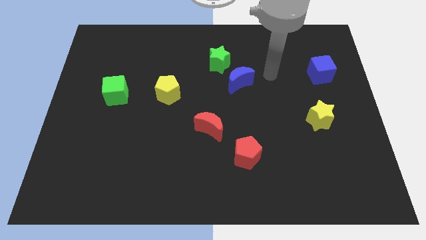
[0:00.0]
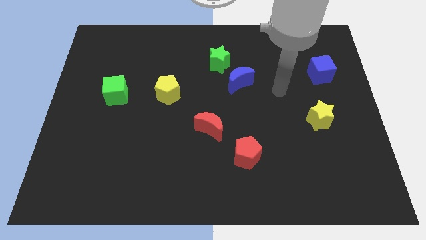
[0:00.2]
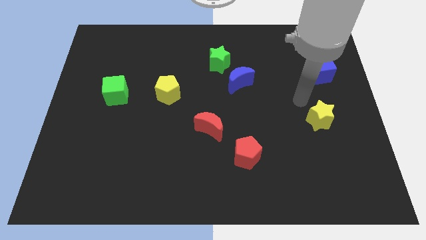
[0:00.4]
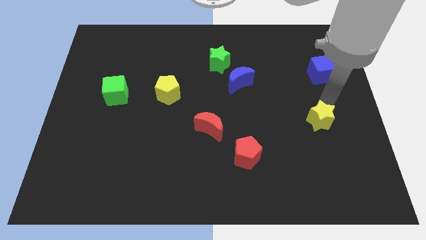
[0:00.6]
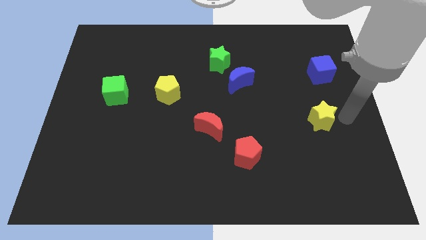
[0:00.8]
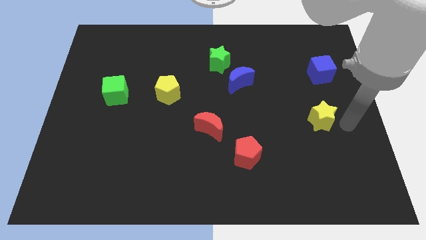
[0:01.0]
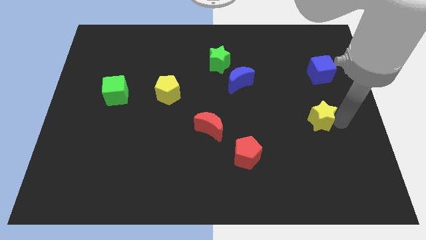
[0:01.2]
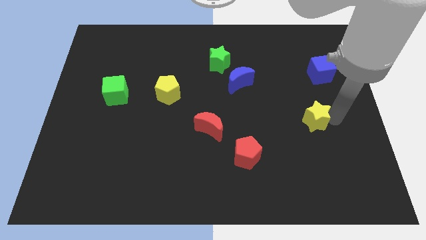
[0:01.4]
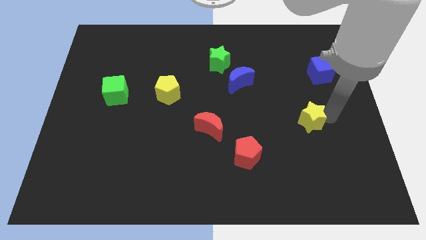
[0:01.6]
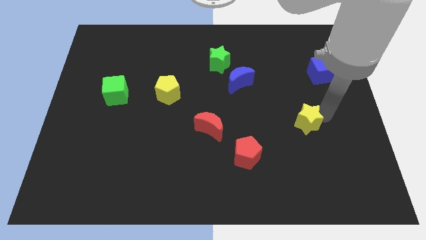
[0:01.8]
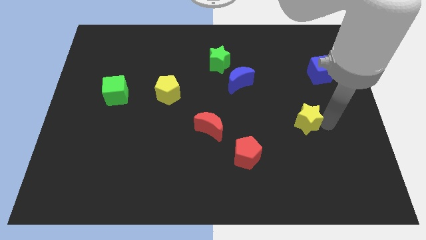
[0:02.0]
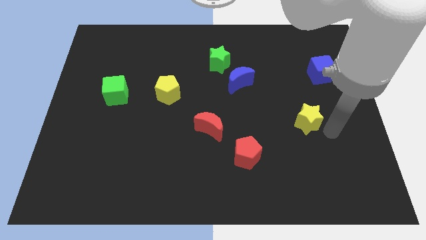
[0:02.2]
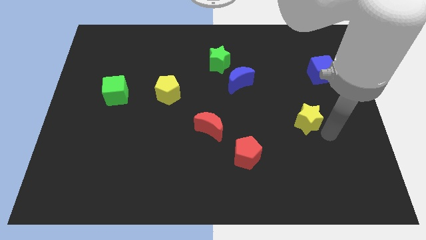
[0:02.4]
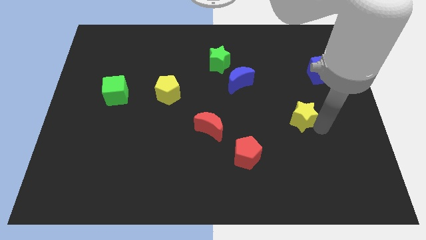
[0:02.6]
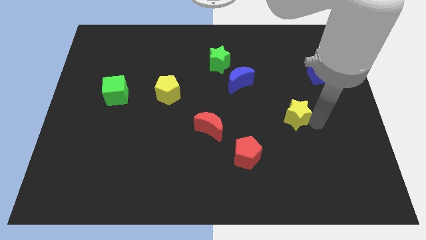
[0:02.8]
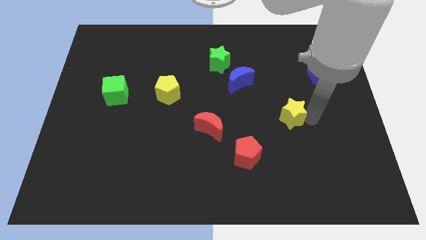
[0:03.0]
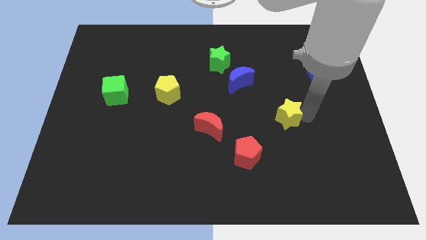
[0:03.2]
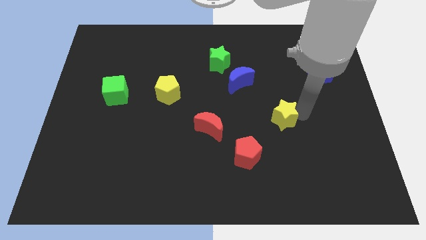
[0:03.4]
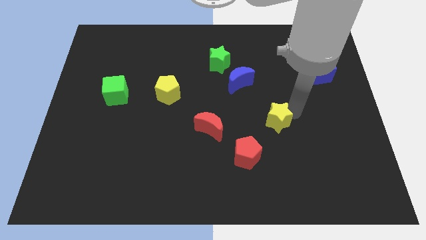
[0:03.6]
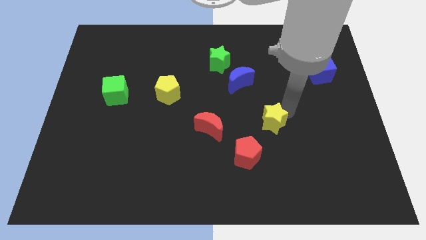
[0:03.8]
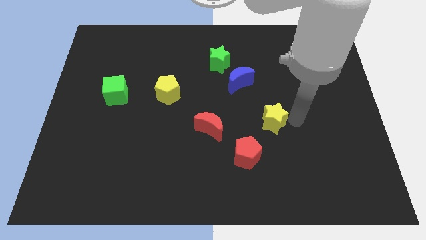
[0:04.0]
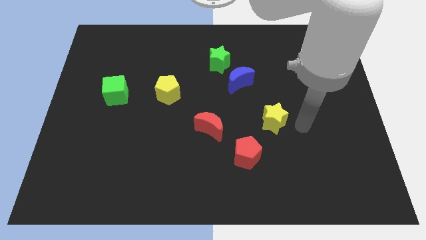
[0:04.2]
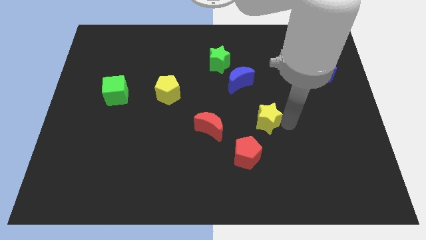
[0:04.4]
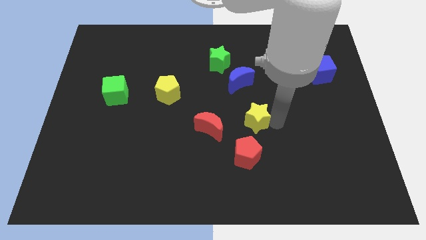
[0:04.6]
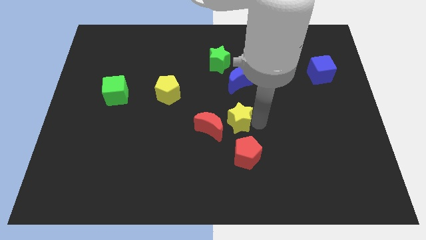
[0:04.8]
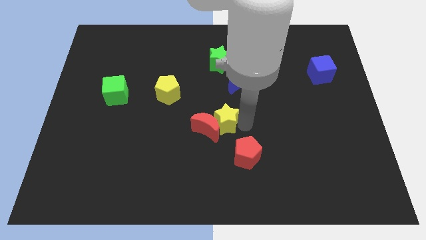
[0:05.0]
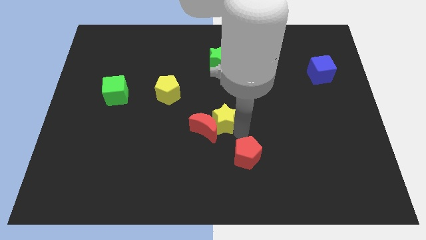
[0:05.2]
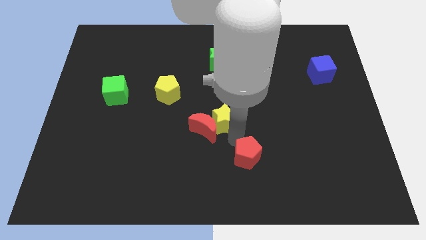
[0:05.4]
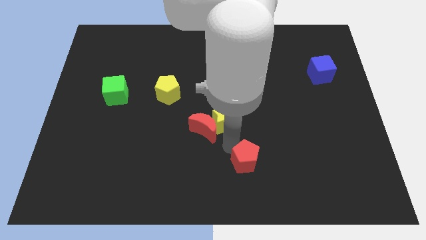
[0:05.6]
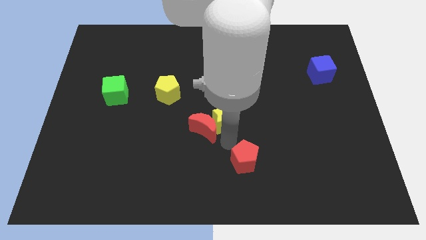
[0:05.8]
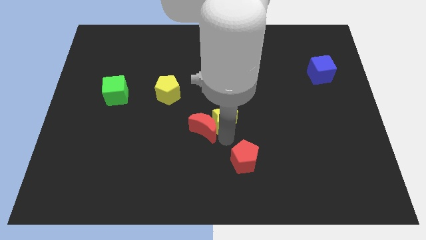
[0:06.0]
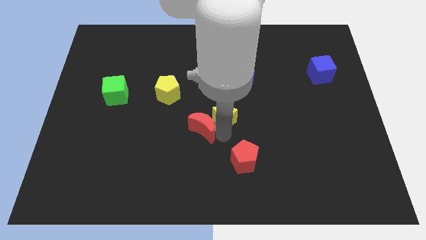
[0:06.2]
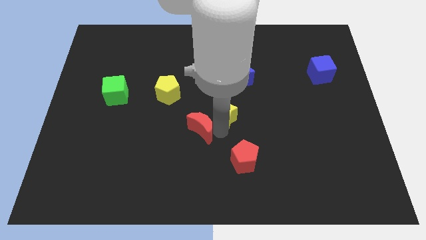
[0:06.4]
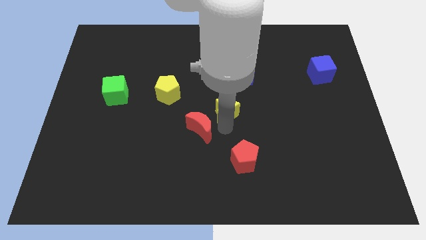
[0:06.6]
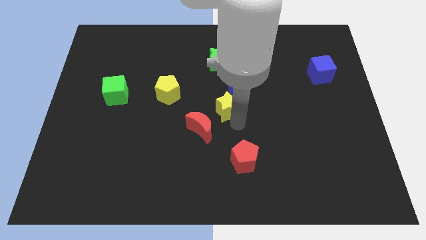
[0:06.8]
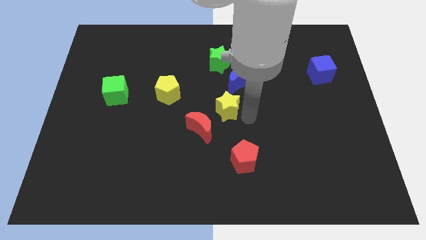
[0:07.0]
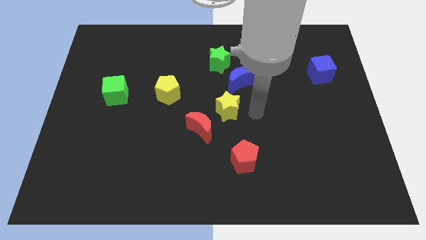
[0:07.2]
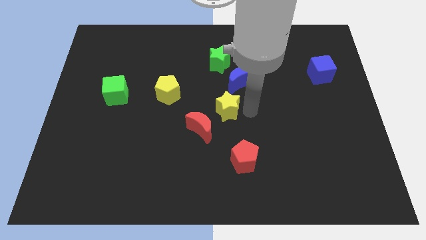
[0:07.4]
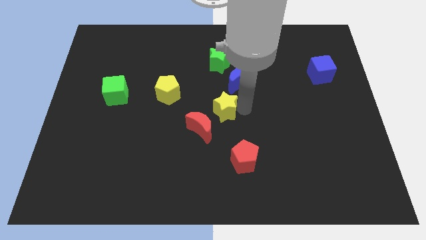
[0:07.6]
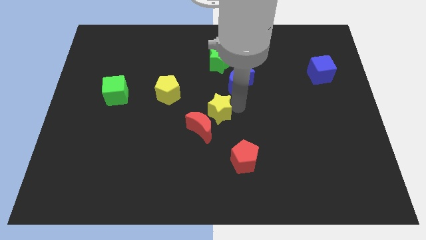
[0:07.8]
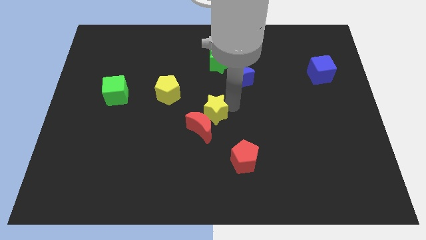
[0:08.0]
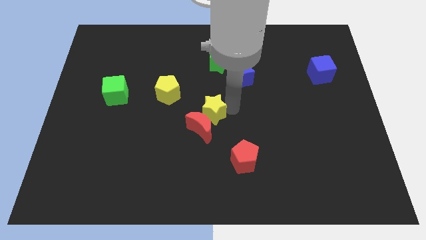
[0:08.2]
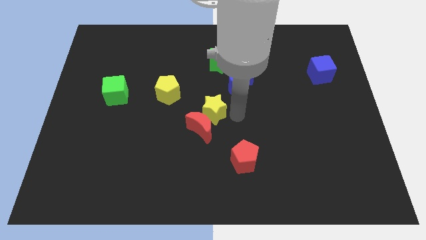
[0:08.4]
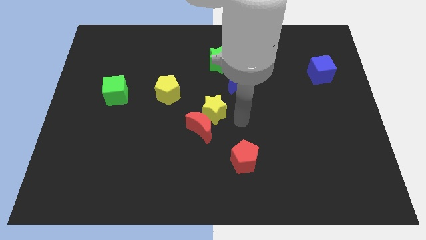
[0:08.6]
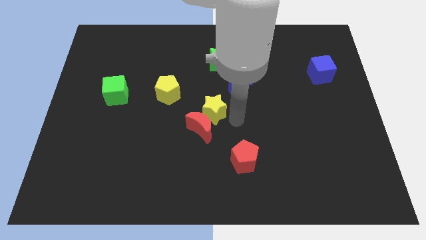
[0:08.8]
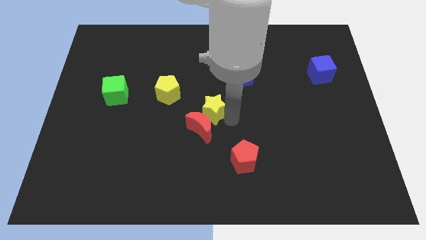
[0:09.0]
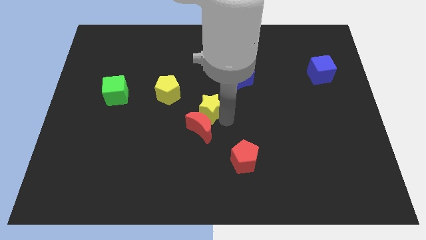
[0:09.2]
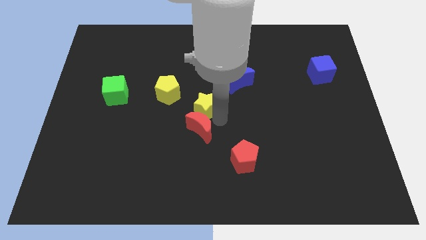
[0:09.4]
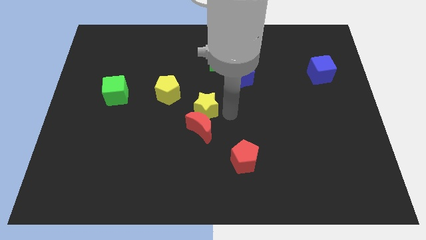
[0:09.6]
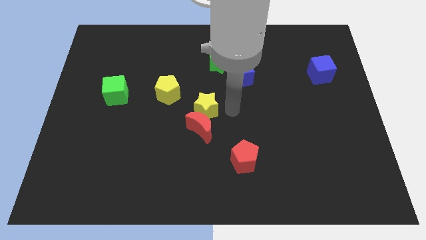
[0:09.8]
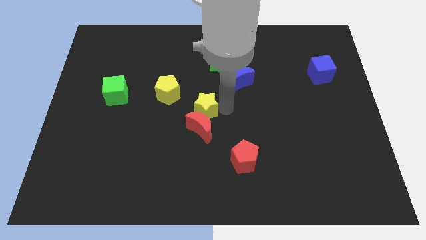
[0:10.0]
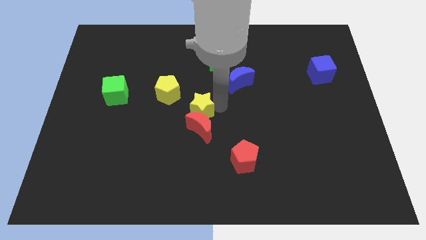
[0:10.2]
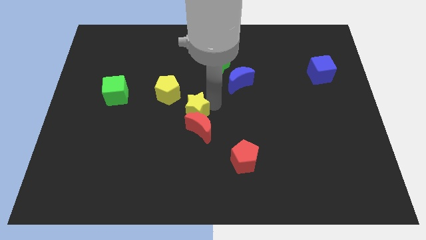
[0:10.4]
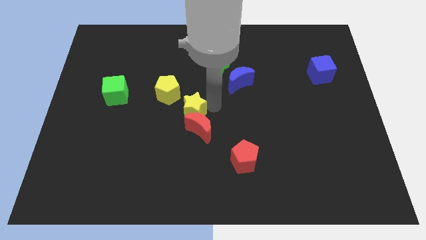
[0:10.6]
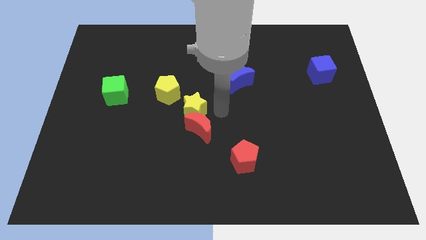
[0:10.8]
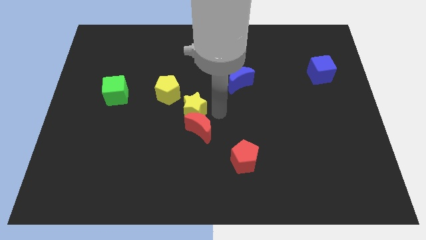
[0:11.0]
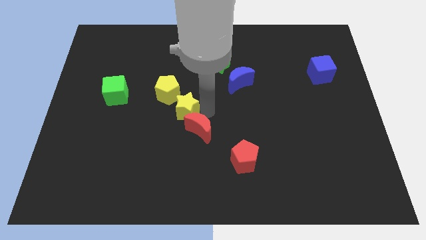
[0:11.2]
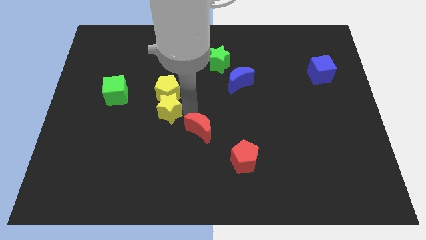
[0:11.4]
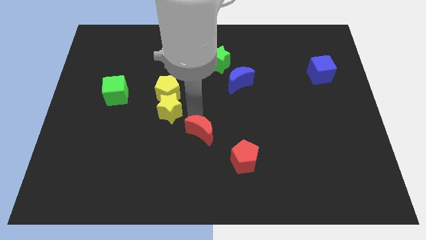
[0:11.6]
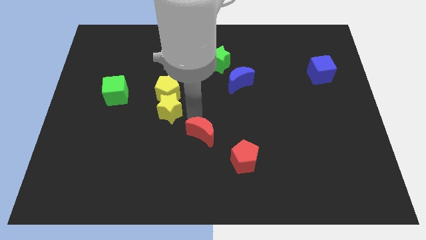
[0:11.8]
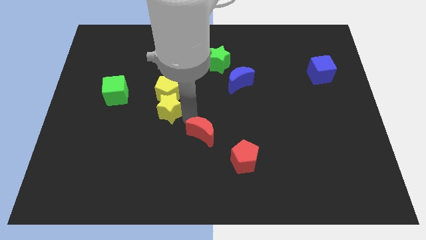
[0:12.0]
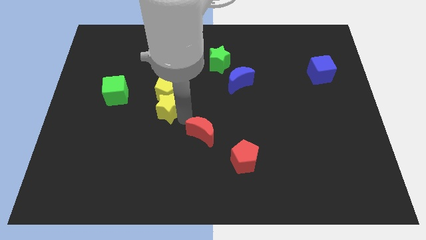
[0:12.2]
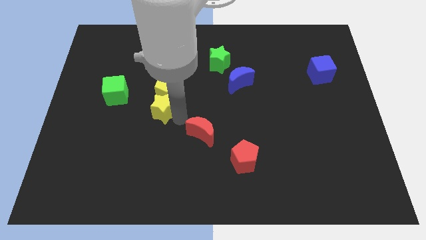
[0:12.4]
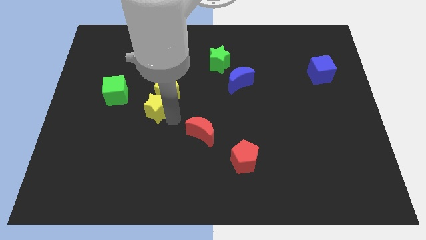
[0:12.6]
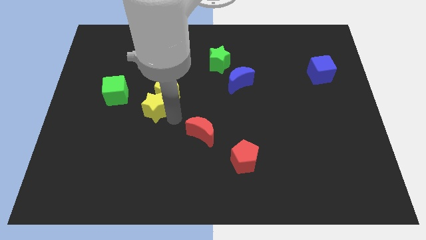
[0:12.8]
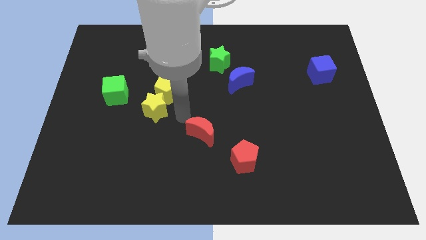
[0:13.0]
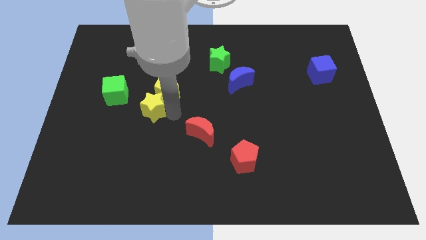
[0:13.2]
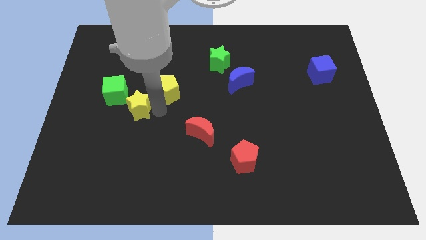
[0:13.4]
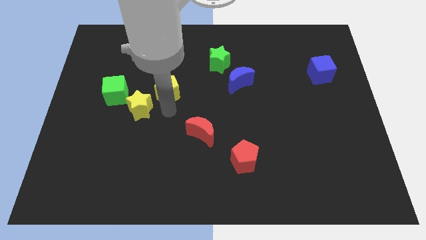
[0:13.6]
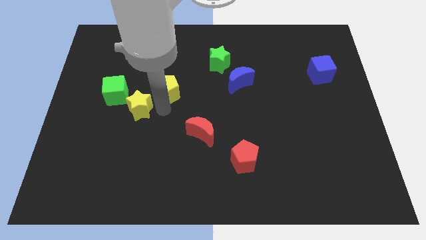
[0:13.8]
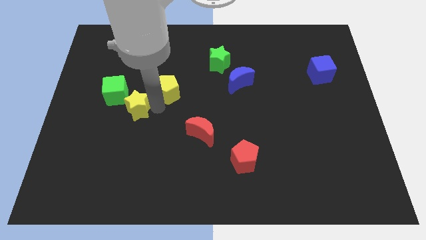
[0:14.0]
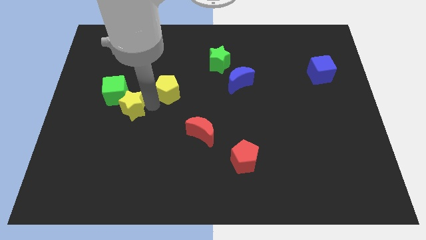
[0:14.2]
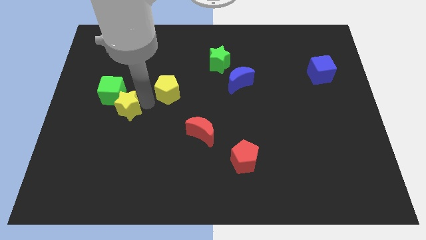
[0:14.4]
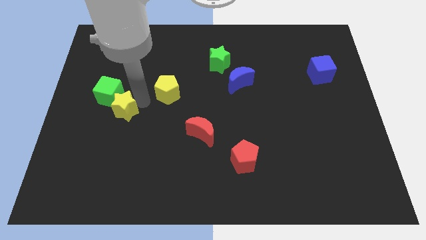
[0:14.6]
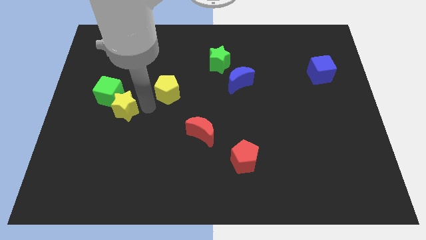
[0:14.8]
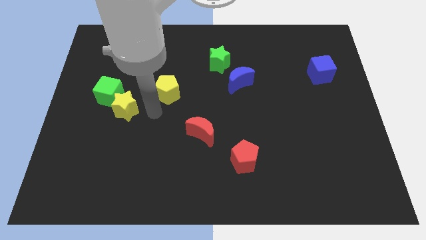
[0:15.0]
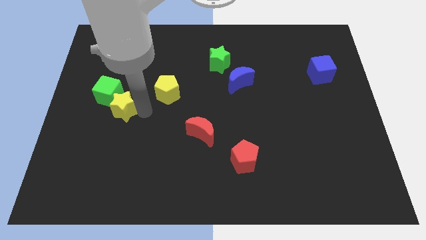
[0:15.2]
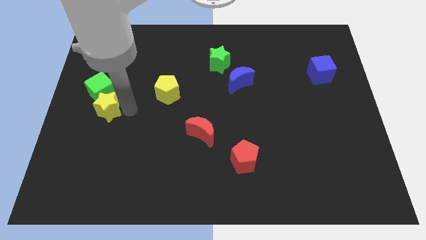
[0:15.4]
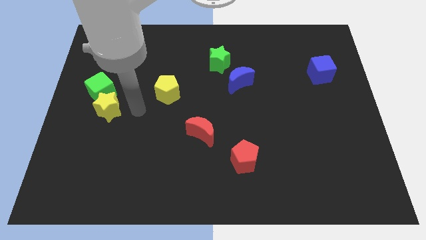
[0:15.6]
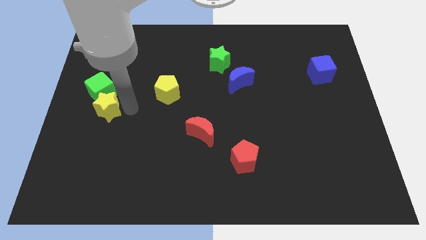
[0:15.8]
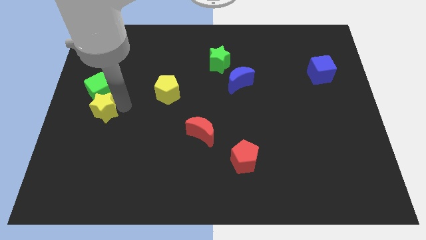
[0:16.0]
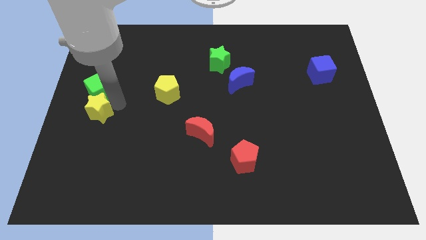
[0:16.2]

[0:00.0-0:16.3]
move the yellow star diagonally down and to the left of the green cube
